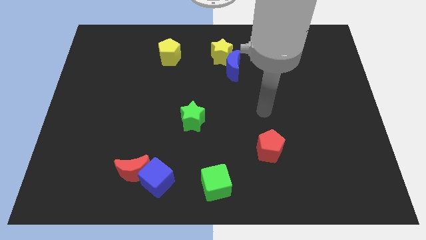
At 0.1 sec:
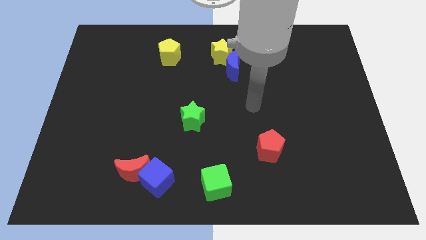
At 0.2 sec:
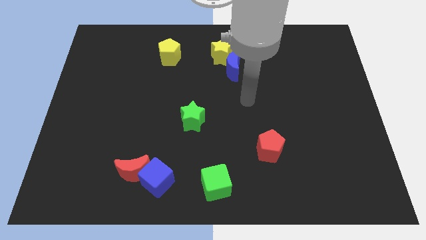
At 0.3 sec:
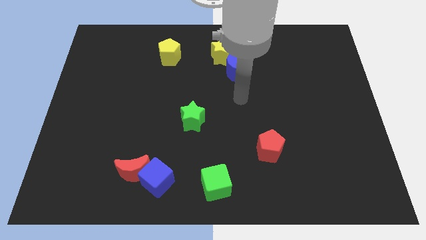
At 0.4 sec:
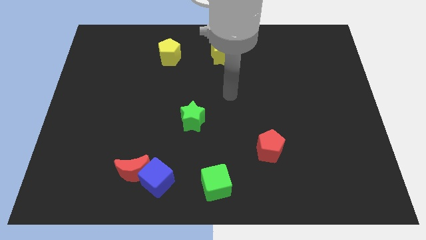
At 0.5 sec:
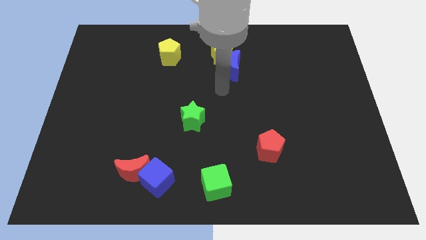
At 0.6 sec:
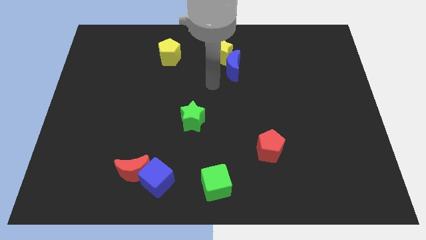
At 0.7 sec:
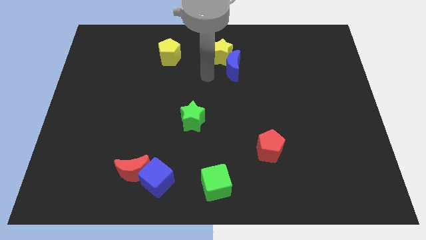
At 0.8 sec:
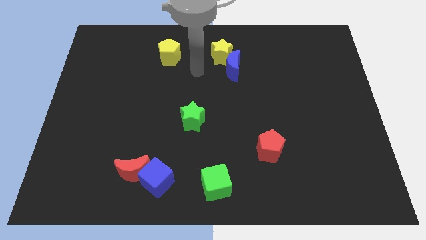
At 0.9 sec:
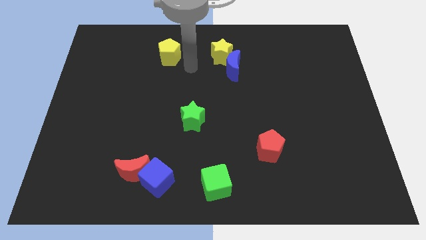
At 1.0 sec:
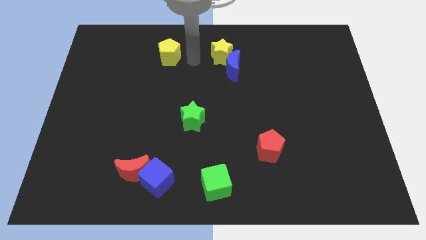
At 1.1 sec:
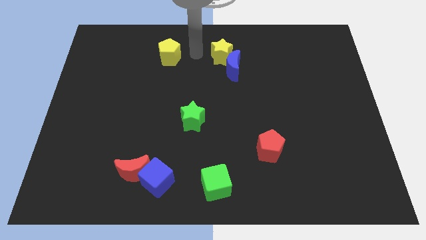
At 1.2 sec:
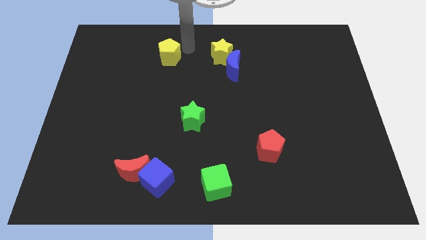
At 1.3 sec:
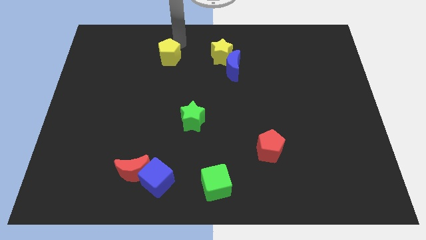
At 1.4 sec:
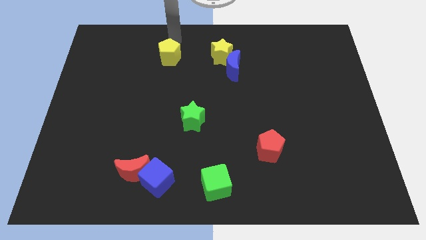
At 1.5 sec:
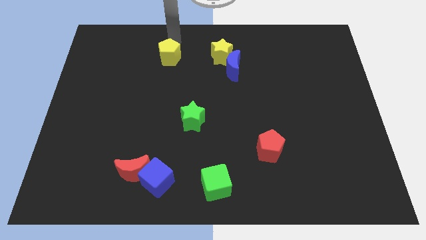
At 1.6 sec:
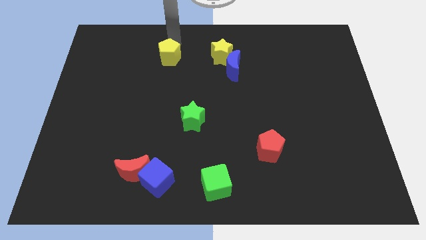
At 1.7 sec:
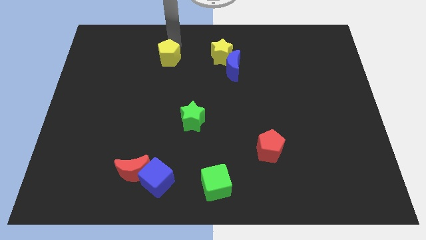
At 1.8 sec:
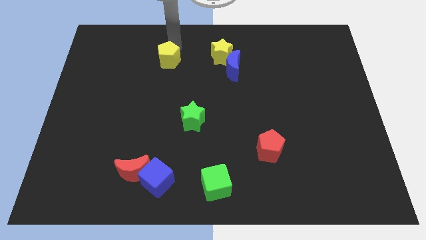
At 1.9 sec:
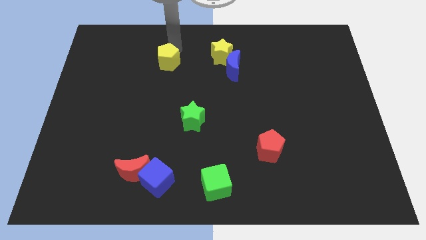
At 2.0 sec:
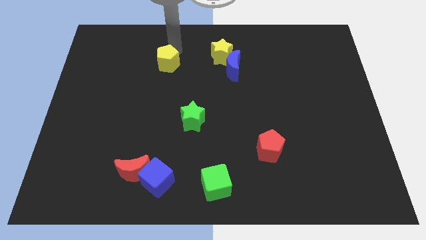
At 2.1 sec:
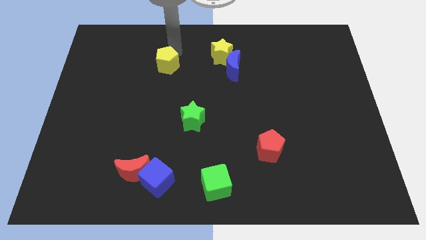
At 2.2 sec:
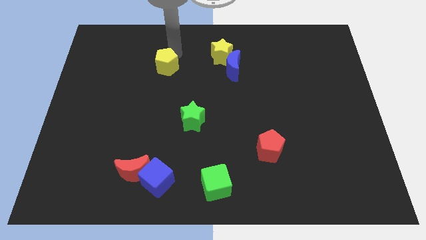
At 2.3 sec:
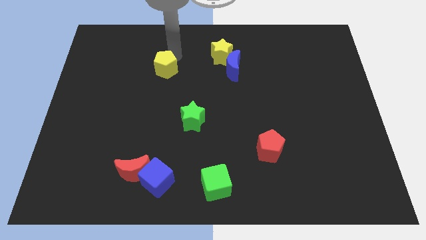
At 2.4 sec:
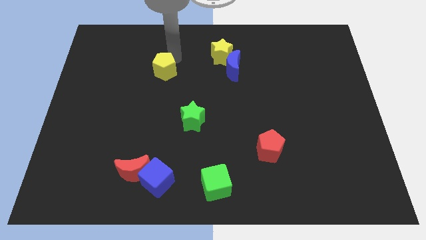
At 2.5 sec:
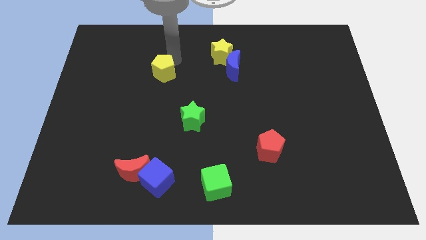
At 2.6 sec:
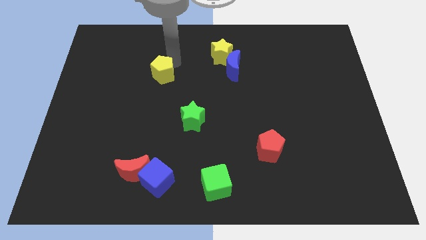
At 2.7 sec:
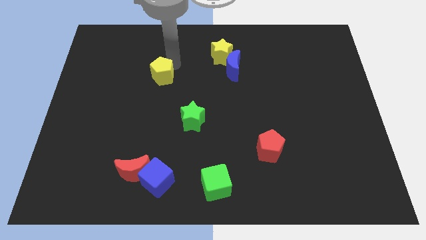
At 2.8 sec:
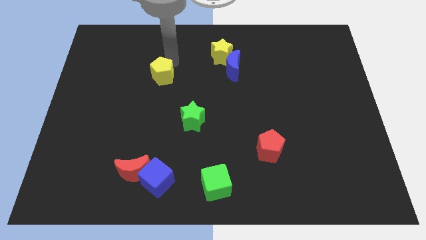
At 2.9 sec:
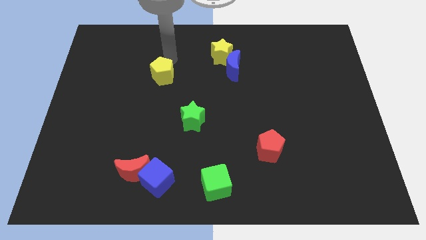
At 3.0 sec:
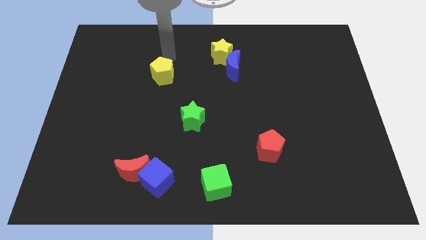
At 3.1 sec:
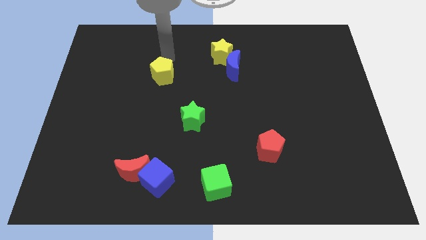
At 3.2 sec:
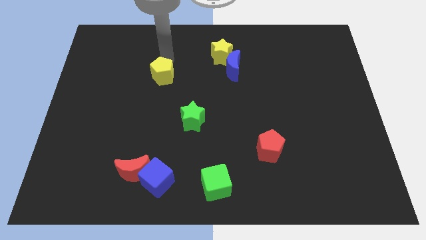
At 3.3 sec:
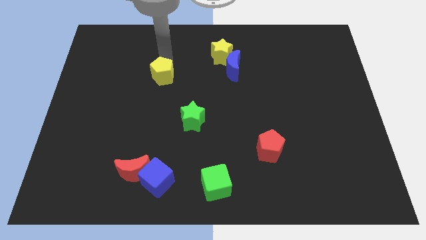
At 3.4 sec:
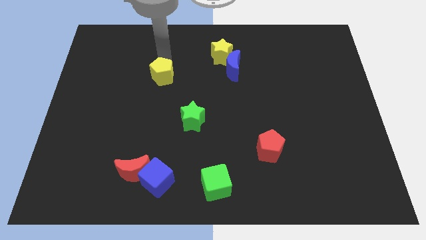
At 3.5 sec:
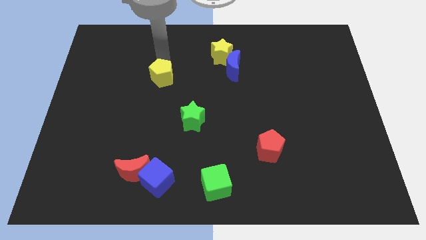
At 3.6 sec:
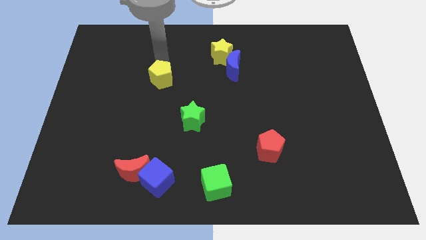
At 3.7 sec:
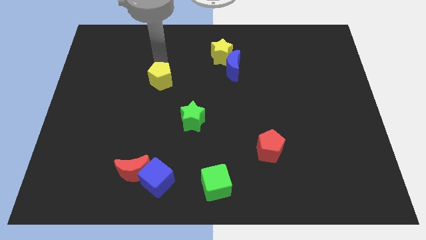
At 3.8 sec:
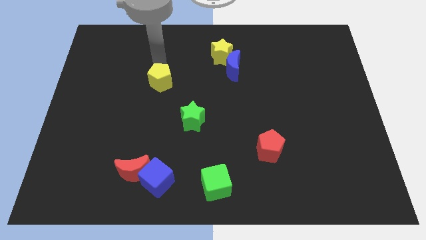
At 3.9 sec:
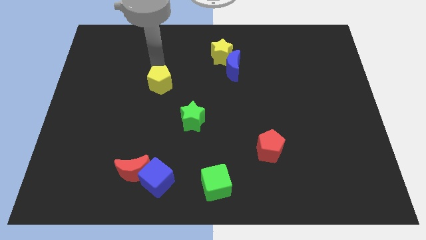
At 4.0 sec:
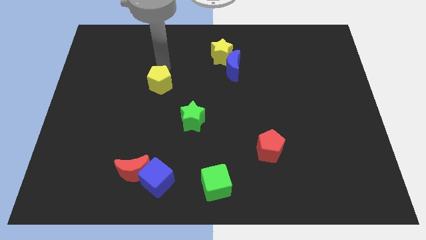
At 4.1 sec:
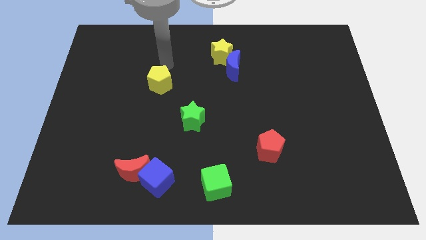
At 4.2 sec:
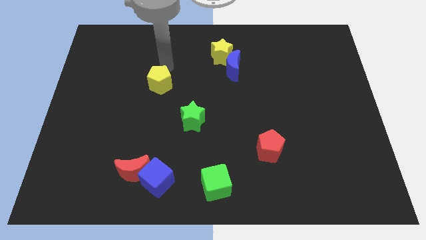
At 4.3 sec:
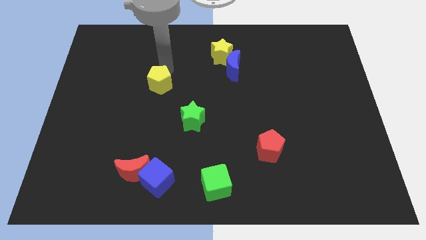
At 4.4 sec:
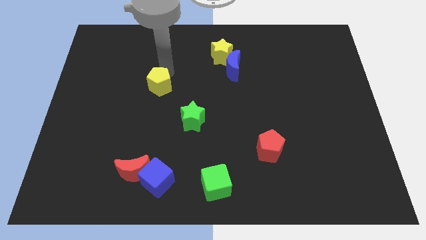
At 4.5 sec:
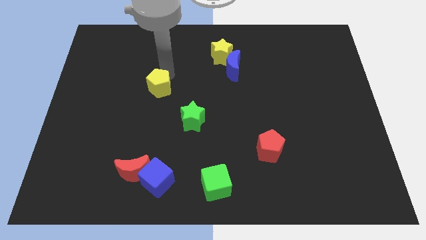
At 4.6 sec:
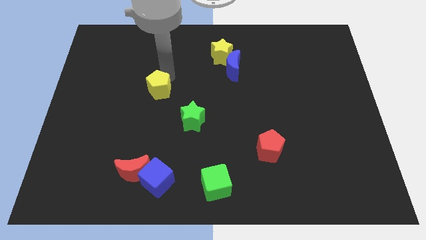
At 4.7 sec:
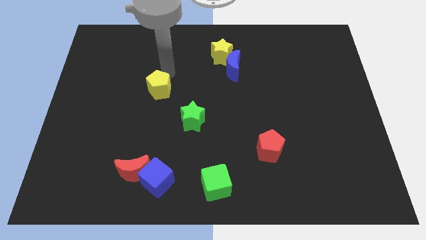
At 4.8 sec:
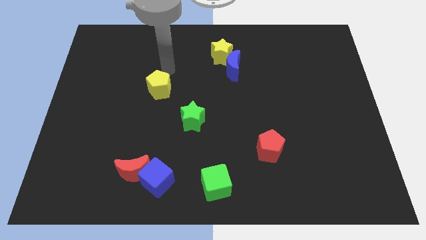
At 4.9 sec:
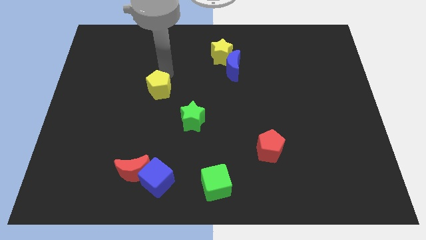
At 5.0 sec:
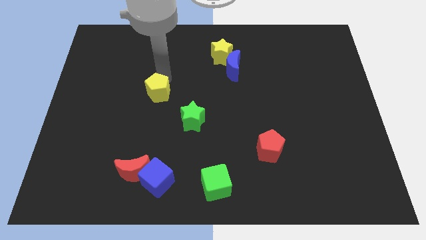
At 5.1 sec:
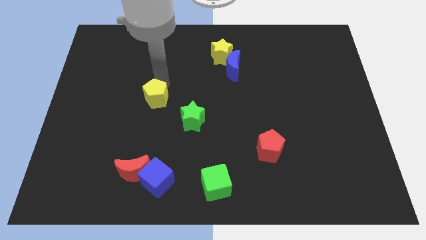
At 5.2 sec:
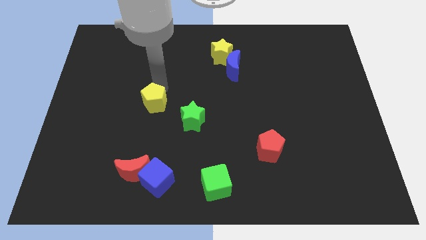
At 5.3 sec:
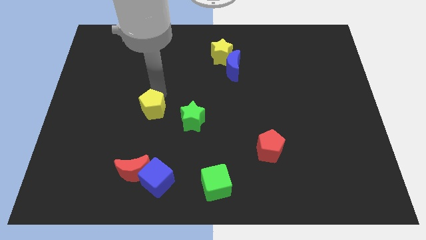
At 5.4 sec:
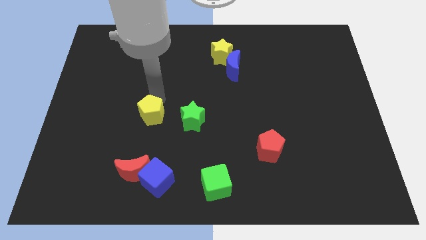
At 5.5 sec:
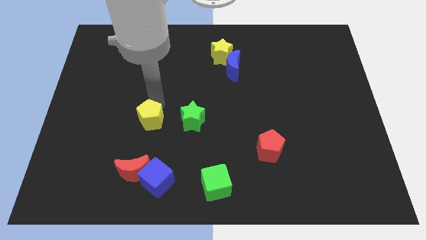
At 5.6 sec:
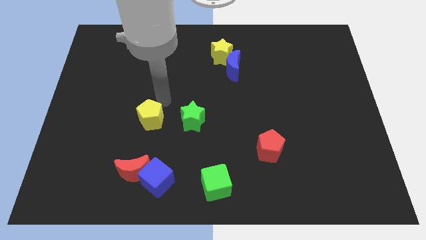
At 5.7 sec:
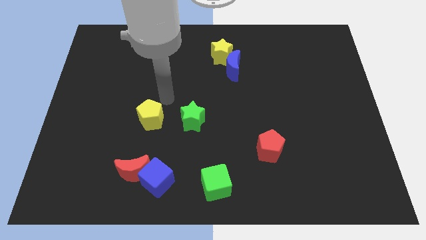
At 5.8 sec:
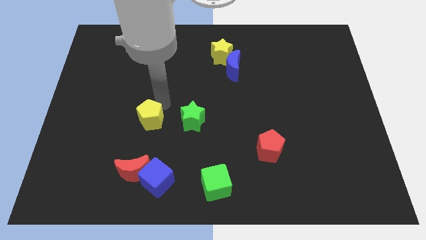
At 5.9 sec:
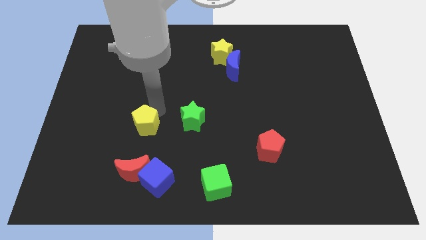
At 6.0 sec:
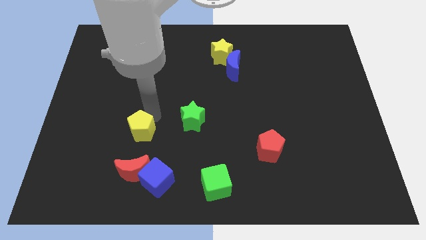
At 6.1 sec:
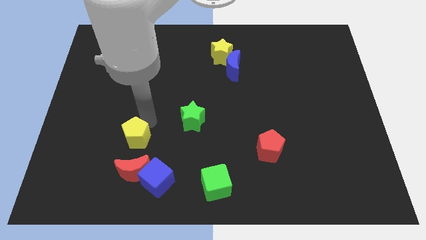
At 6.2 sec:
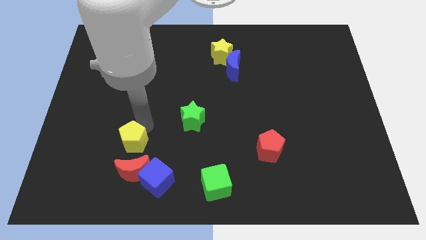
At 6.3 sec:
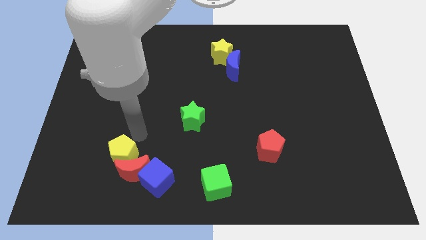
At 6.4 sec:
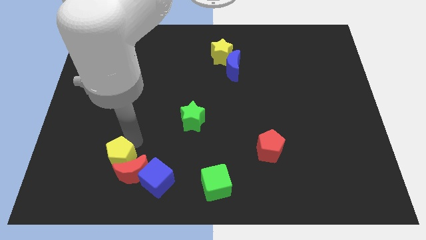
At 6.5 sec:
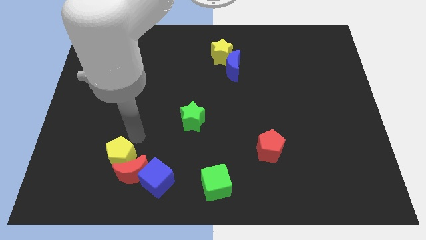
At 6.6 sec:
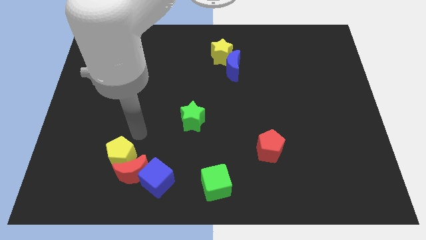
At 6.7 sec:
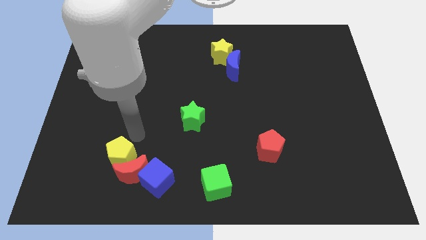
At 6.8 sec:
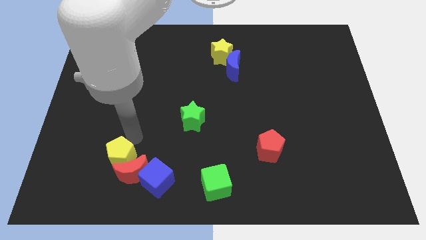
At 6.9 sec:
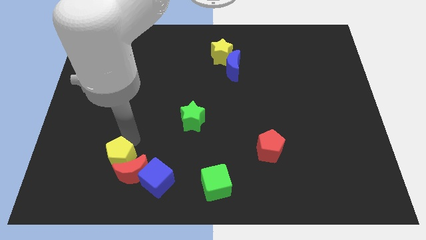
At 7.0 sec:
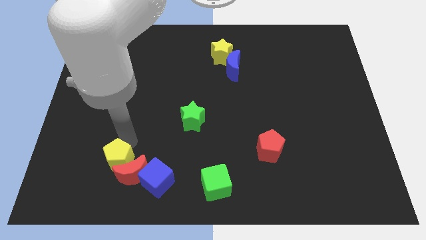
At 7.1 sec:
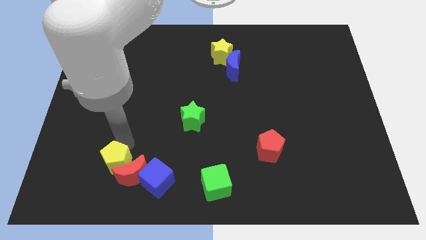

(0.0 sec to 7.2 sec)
put the yellow pentagon to the left side of the blue cube
